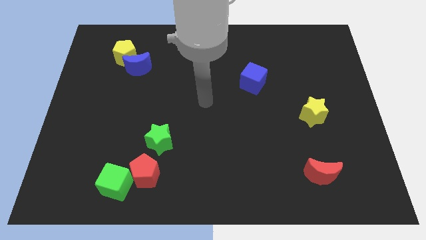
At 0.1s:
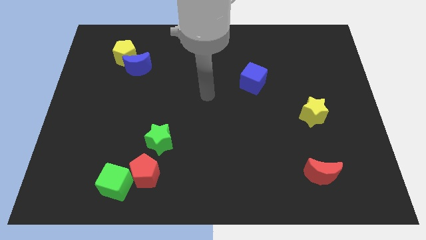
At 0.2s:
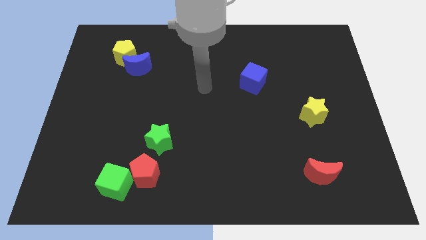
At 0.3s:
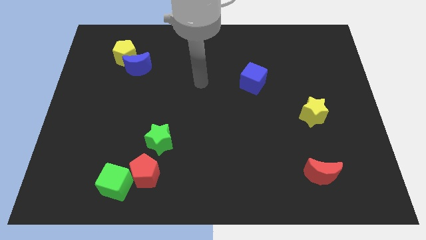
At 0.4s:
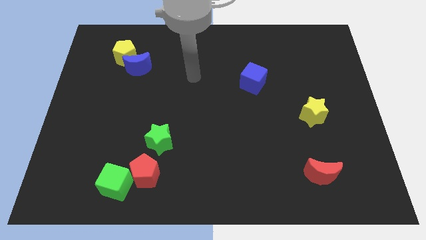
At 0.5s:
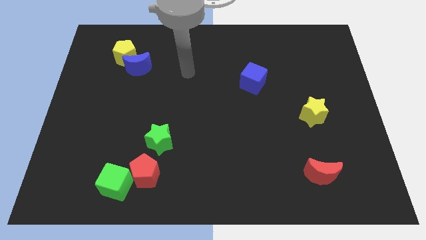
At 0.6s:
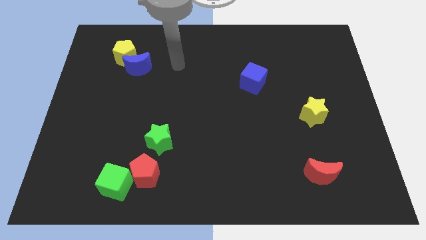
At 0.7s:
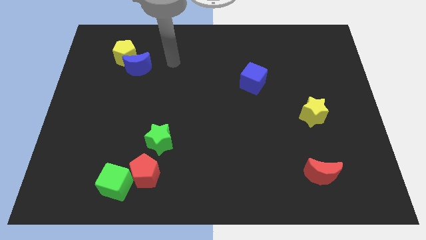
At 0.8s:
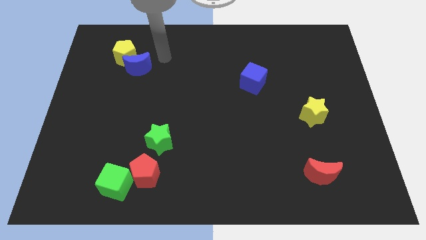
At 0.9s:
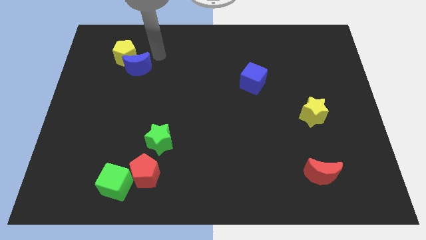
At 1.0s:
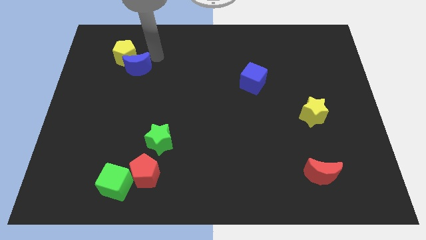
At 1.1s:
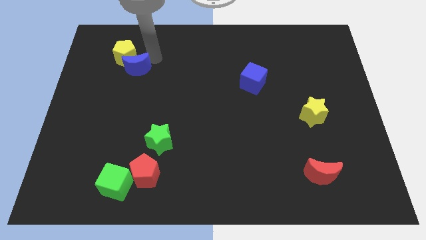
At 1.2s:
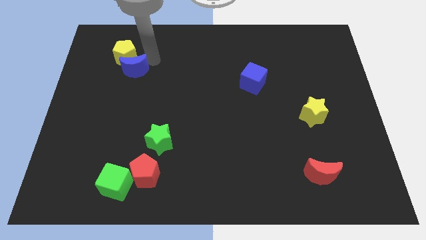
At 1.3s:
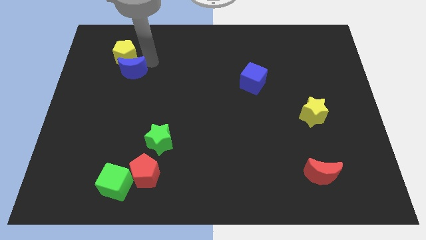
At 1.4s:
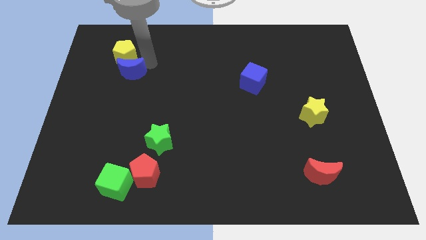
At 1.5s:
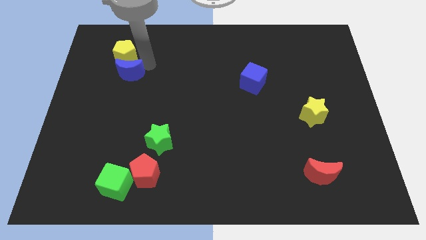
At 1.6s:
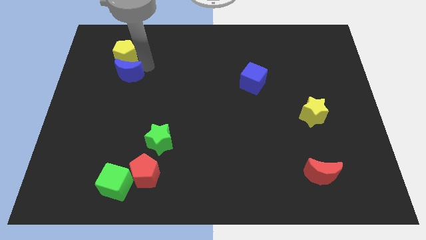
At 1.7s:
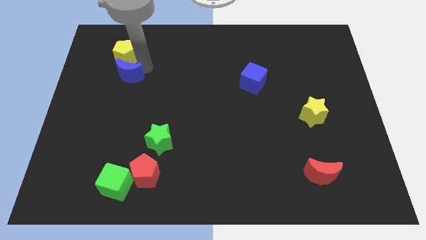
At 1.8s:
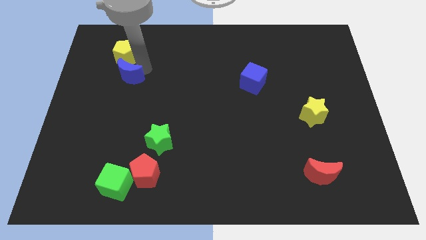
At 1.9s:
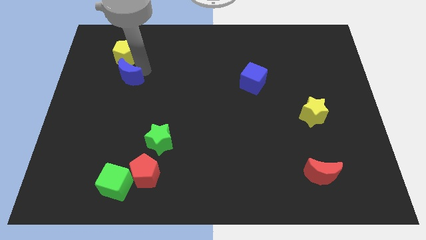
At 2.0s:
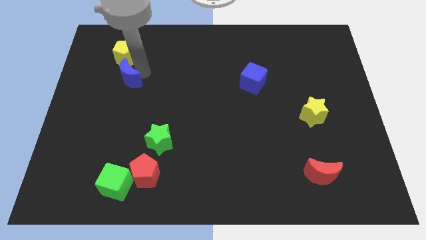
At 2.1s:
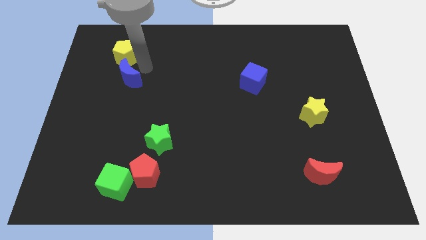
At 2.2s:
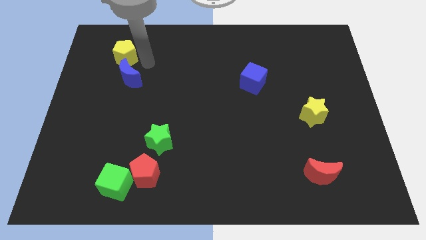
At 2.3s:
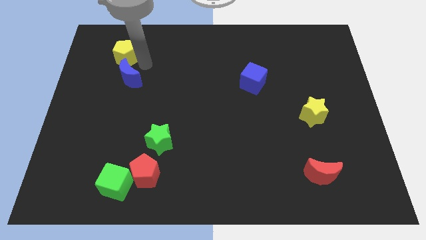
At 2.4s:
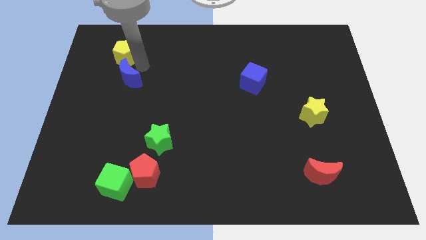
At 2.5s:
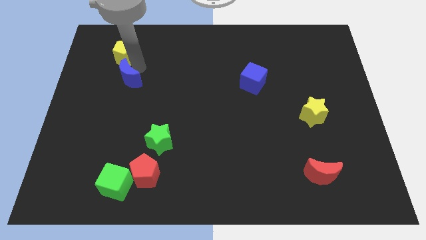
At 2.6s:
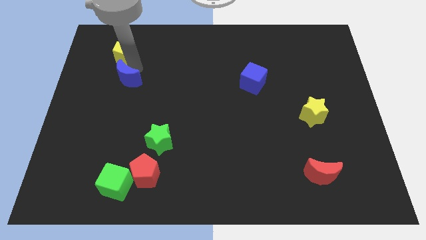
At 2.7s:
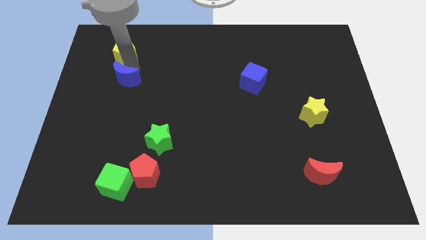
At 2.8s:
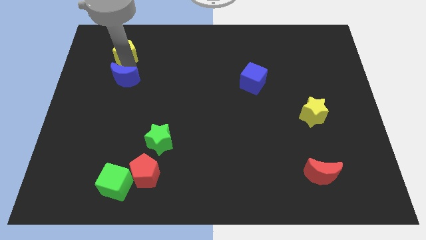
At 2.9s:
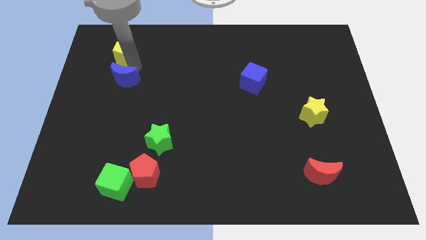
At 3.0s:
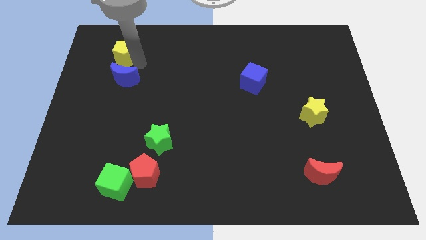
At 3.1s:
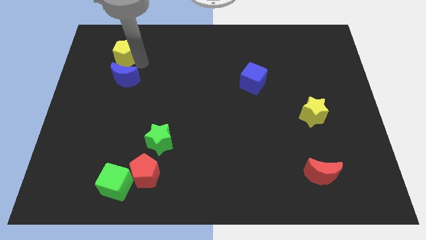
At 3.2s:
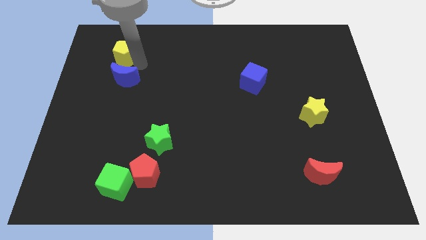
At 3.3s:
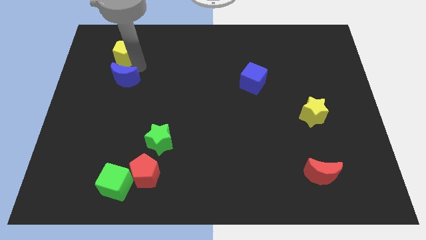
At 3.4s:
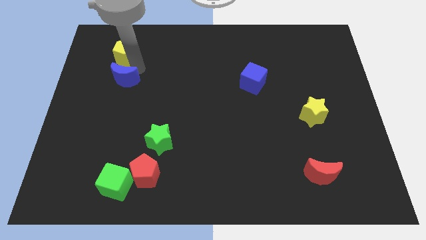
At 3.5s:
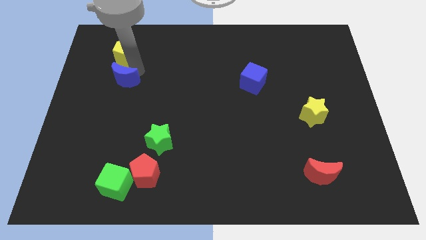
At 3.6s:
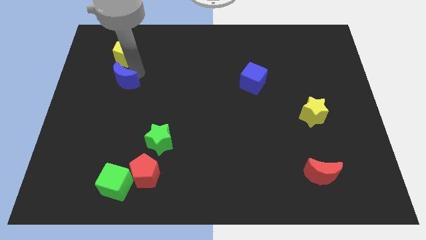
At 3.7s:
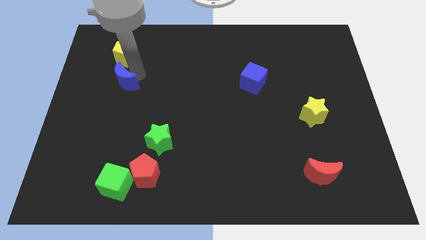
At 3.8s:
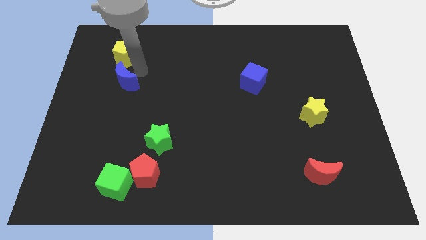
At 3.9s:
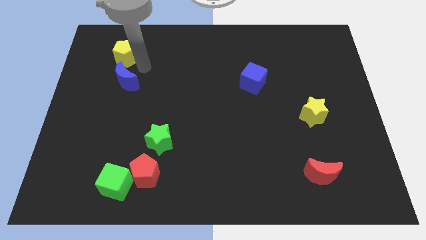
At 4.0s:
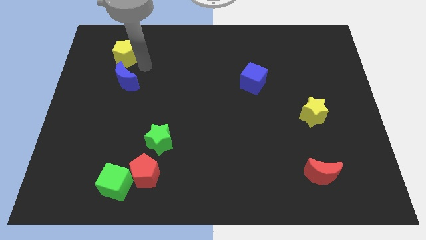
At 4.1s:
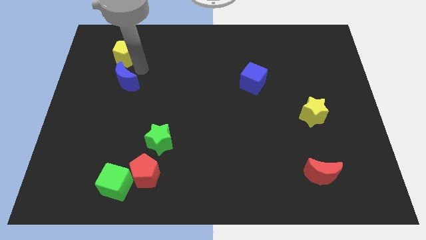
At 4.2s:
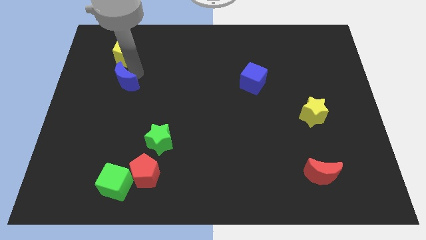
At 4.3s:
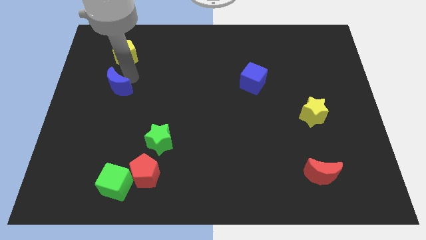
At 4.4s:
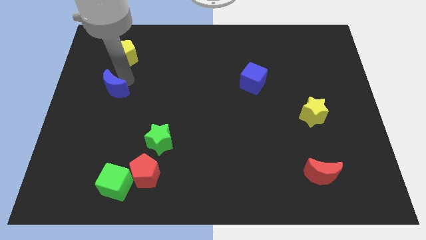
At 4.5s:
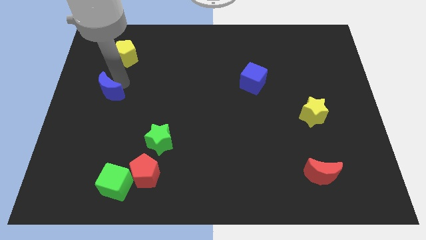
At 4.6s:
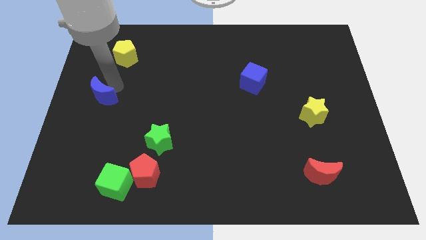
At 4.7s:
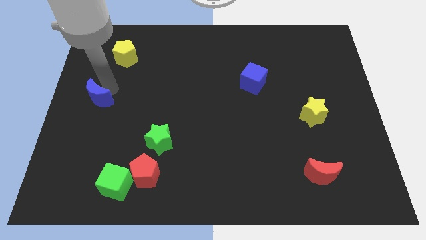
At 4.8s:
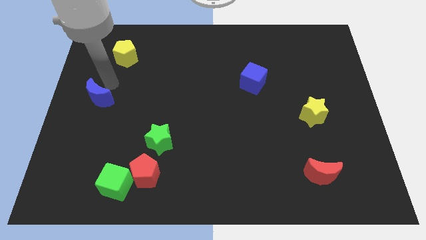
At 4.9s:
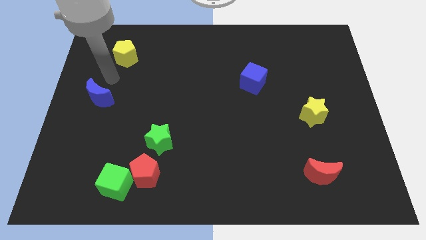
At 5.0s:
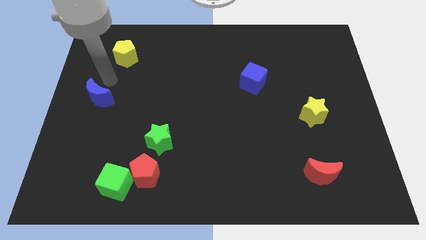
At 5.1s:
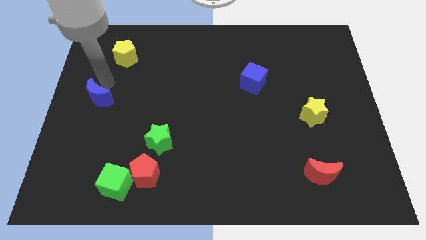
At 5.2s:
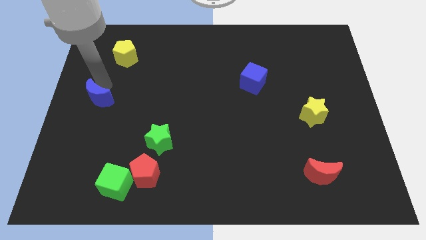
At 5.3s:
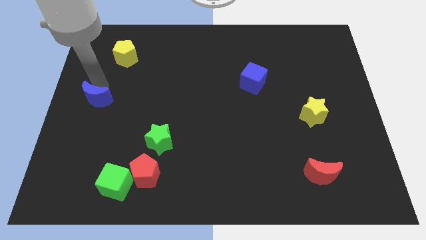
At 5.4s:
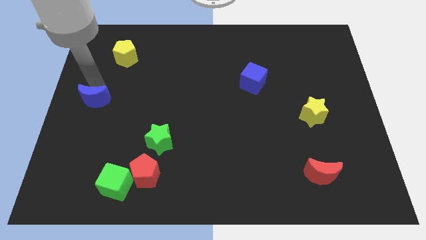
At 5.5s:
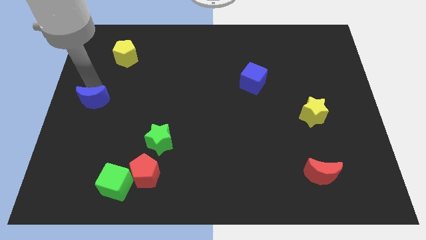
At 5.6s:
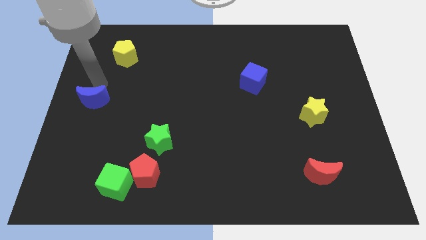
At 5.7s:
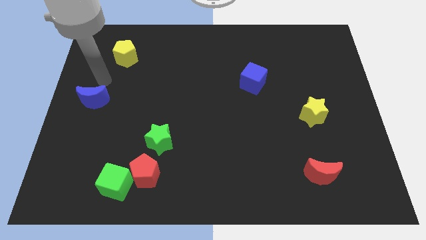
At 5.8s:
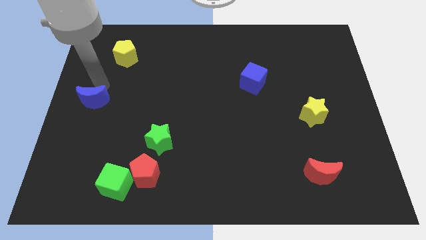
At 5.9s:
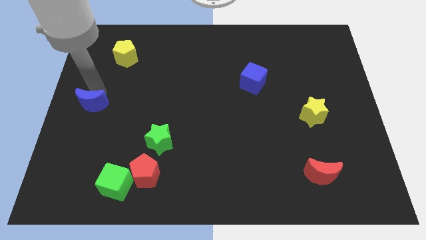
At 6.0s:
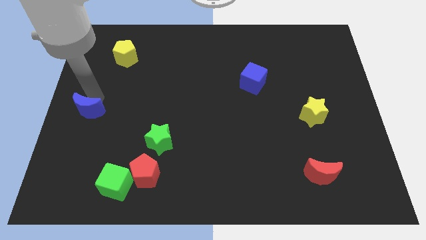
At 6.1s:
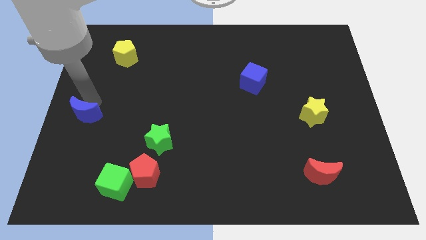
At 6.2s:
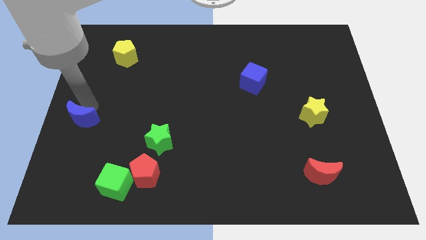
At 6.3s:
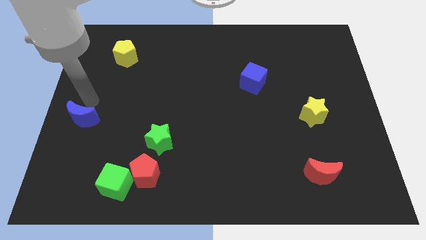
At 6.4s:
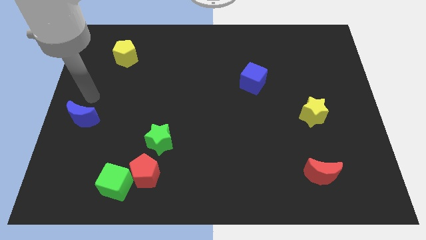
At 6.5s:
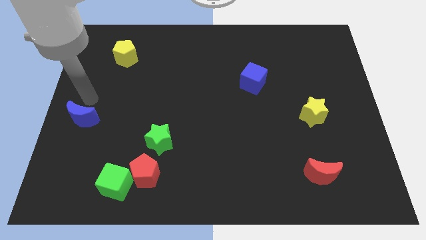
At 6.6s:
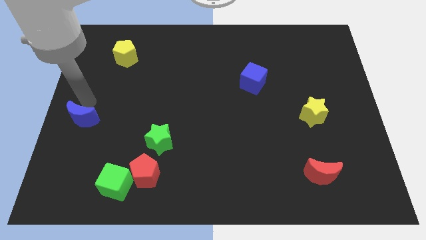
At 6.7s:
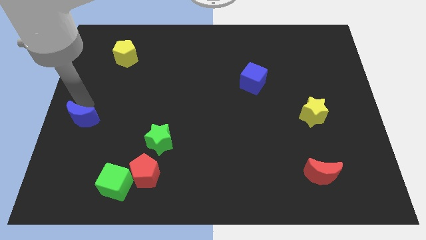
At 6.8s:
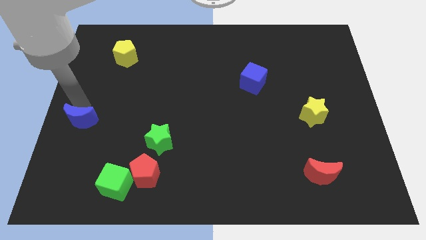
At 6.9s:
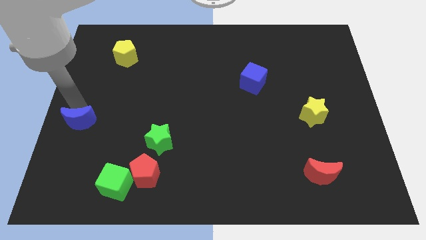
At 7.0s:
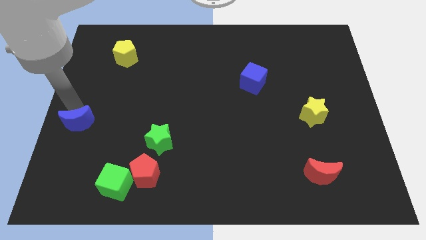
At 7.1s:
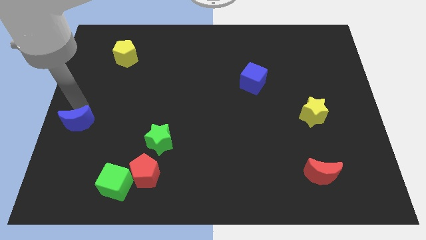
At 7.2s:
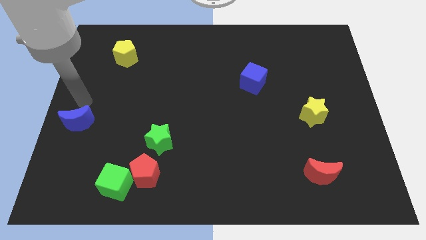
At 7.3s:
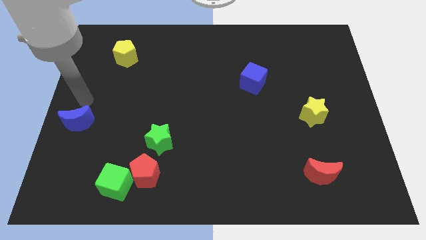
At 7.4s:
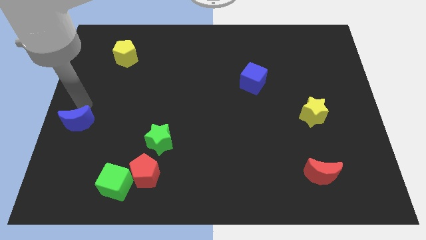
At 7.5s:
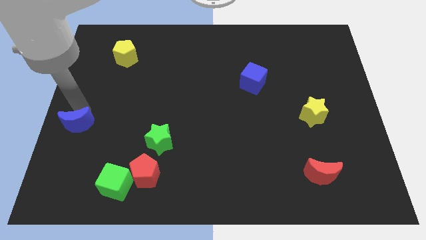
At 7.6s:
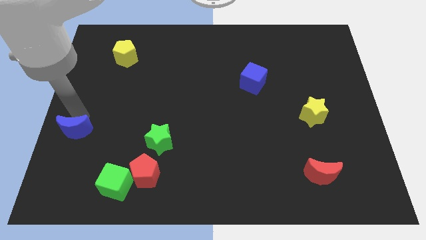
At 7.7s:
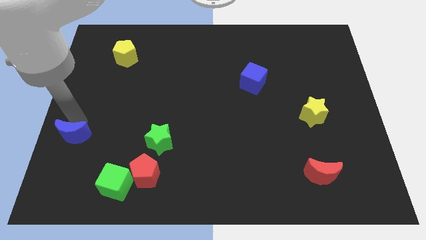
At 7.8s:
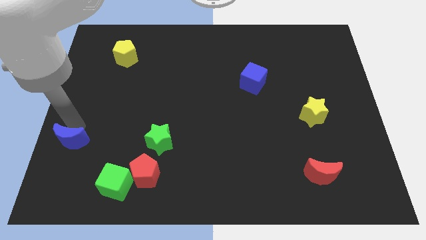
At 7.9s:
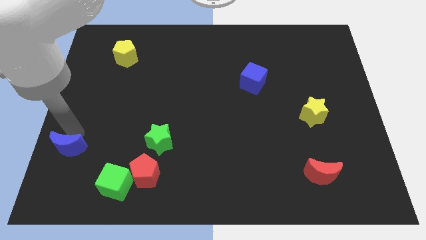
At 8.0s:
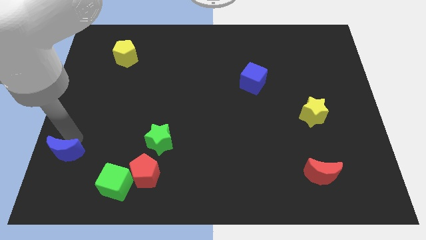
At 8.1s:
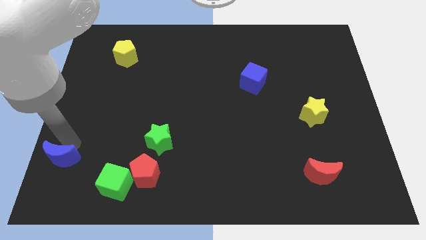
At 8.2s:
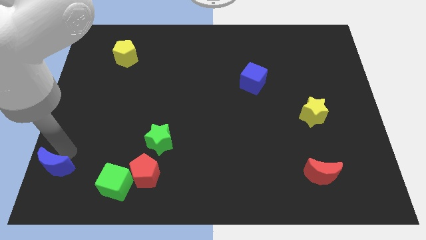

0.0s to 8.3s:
push the blue moon to the bottom left of the board
